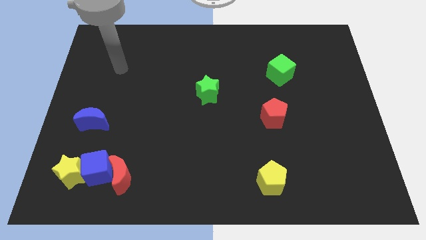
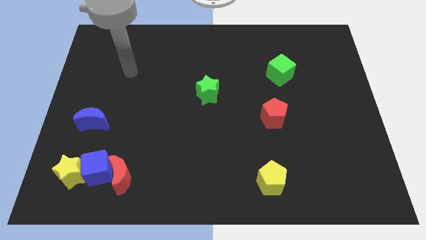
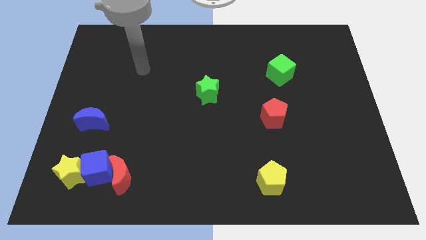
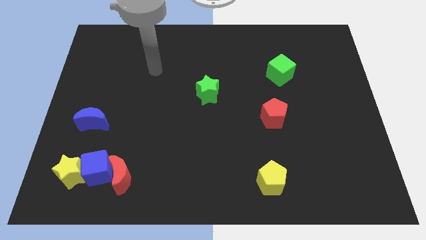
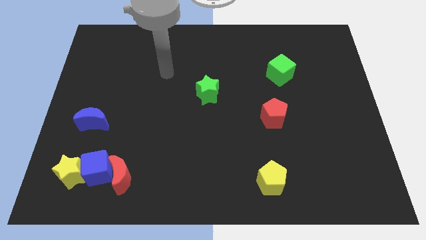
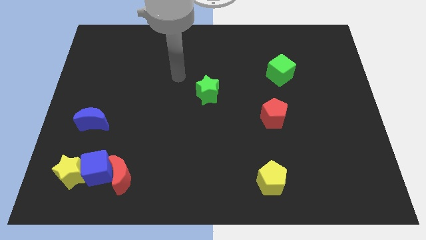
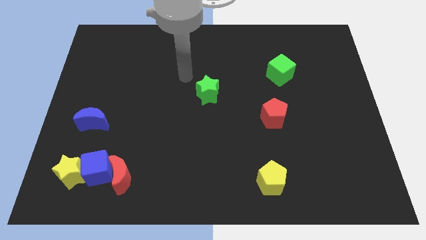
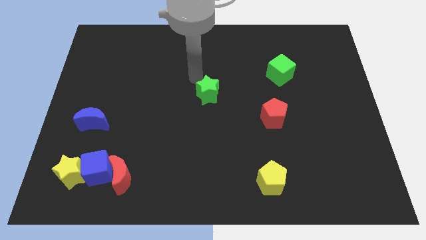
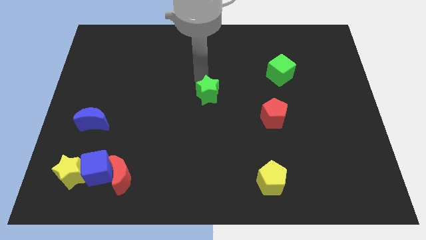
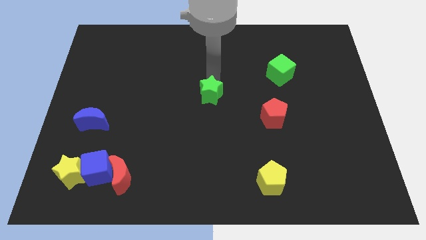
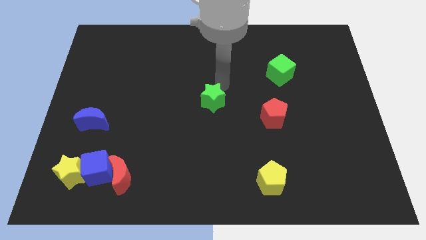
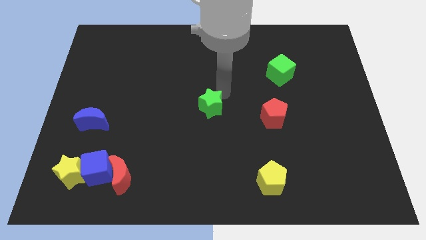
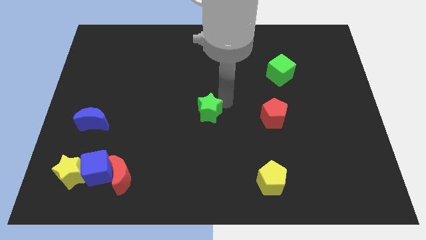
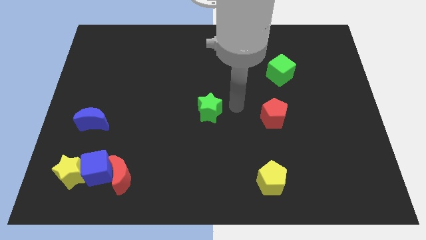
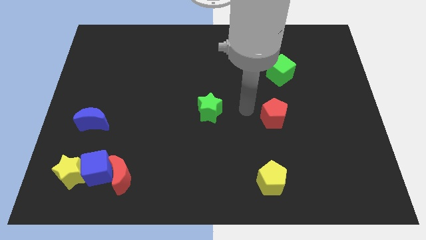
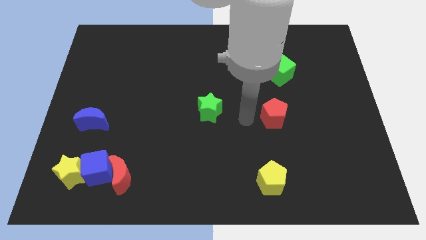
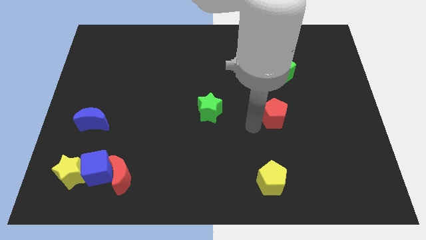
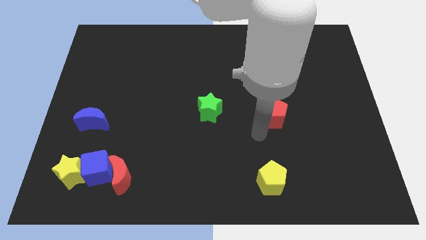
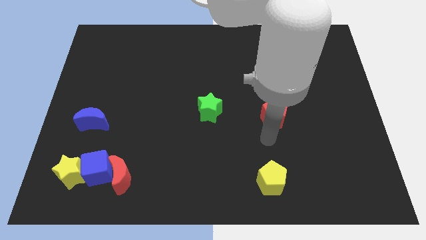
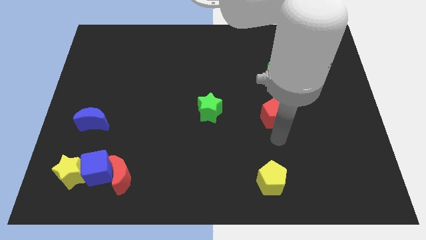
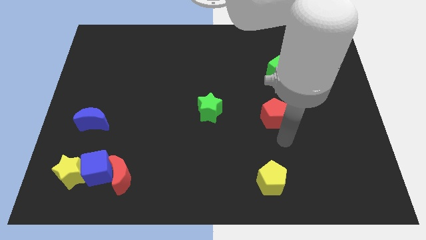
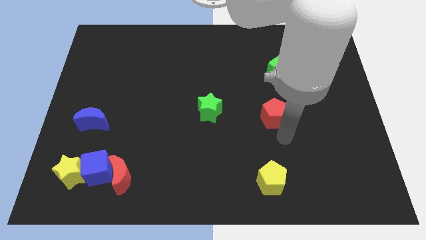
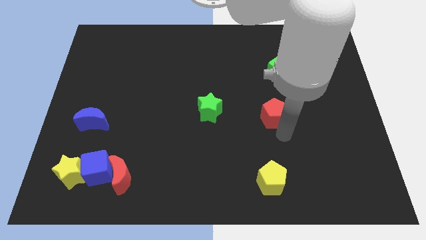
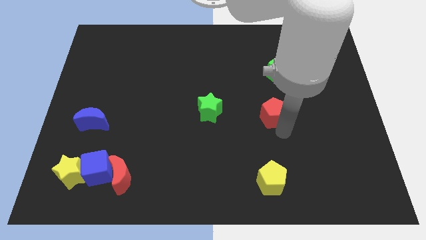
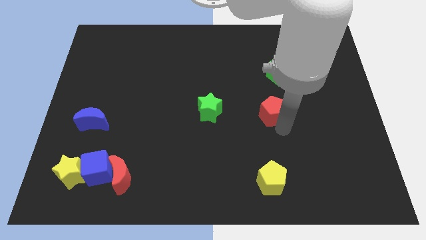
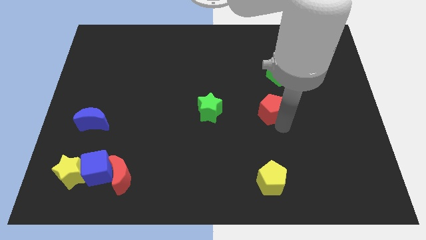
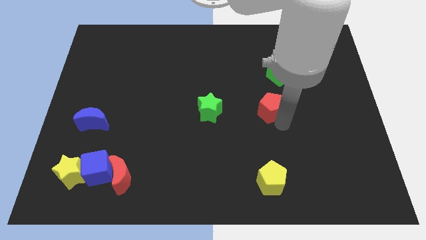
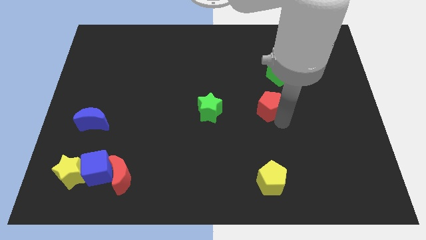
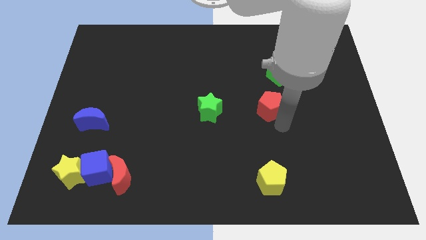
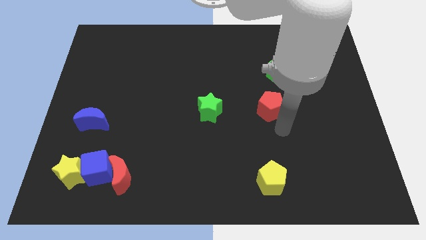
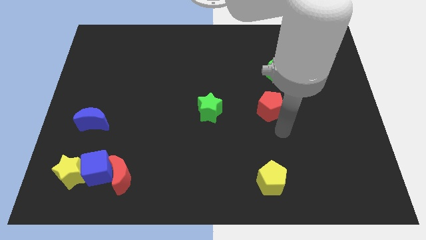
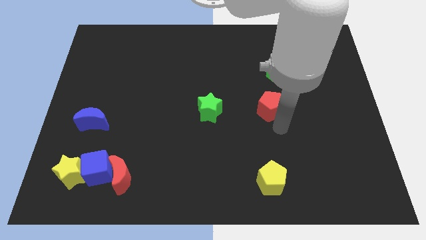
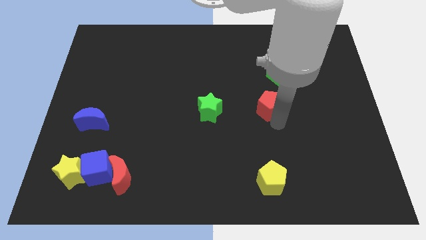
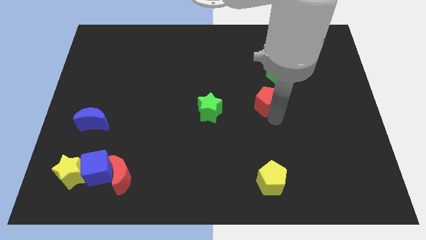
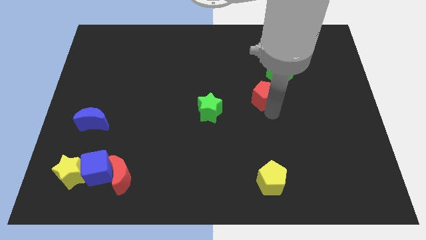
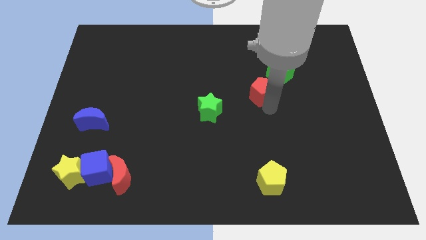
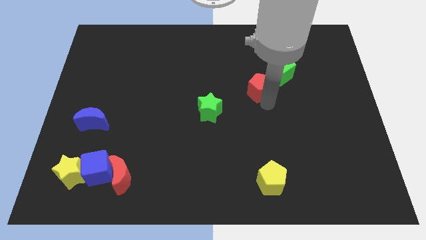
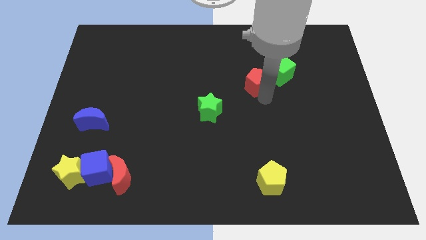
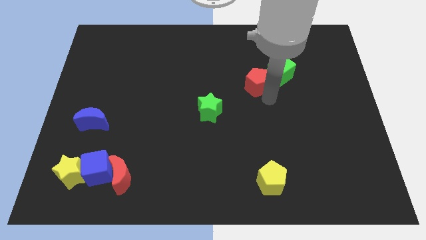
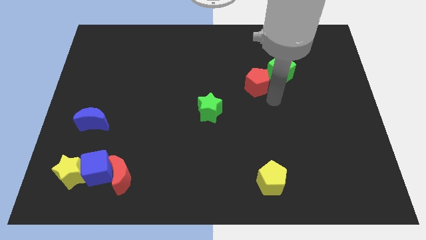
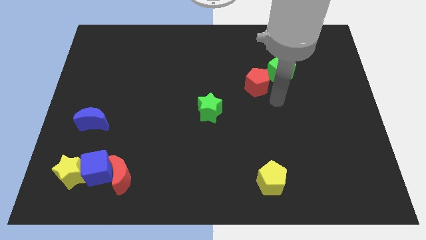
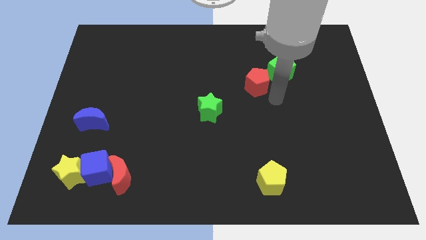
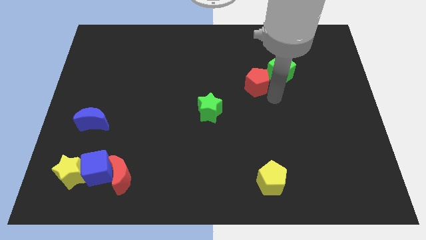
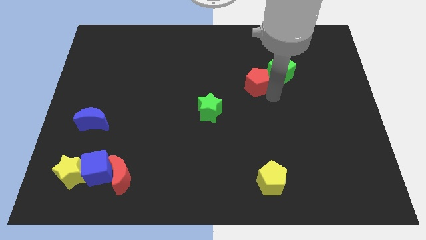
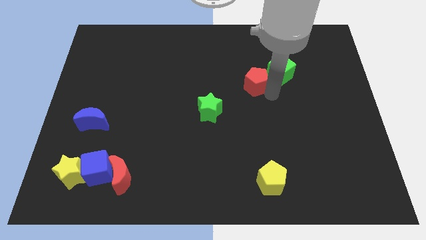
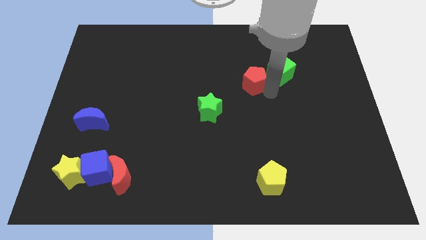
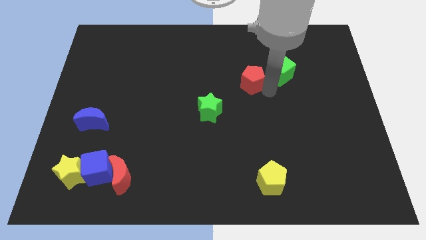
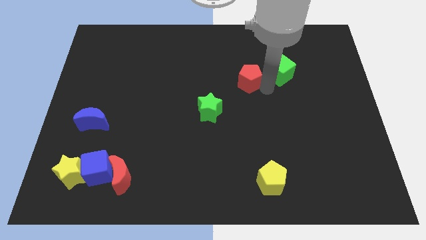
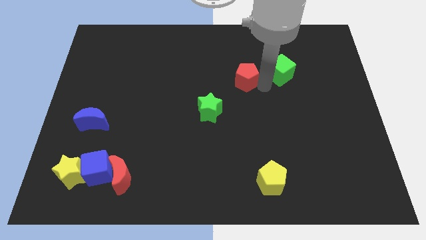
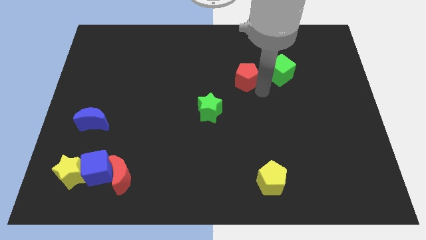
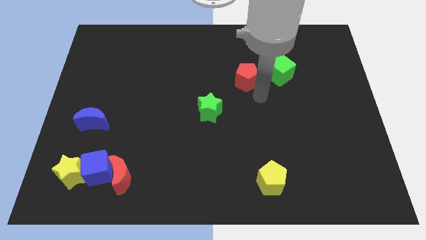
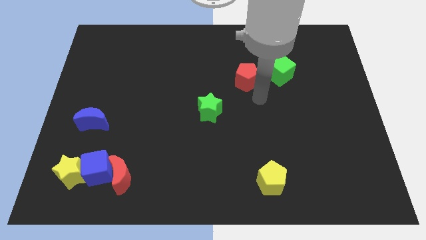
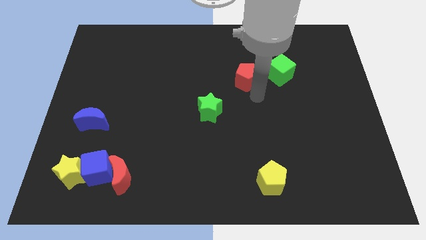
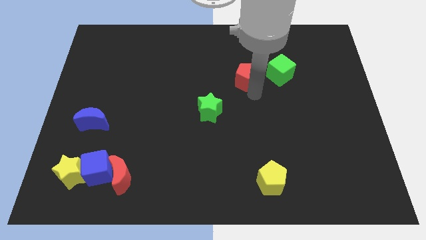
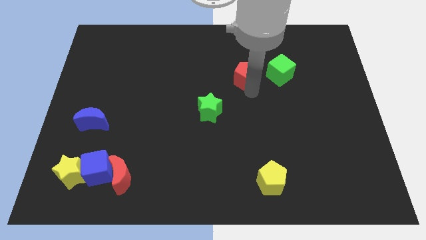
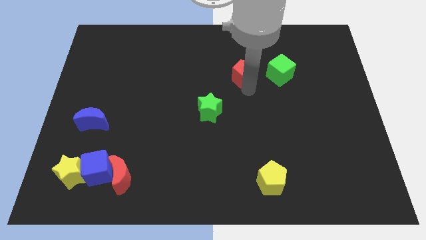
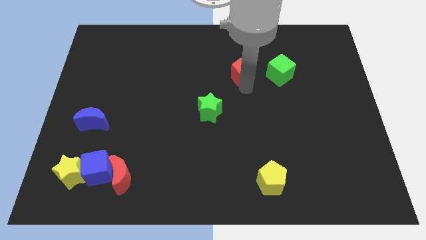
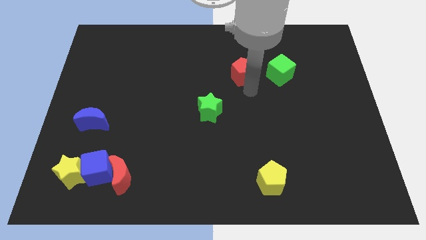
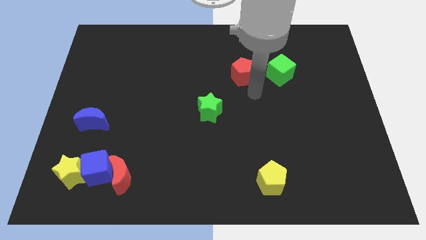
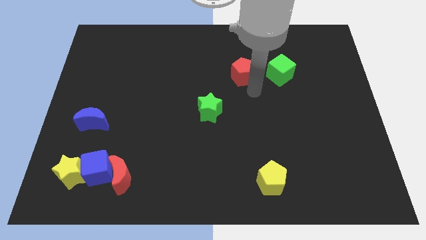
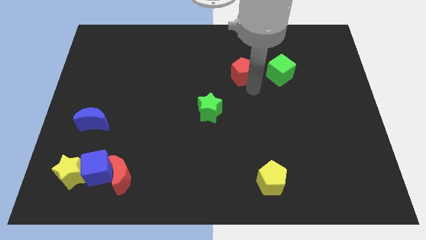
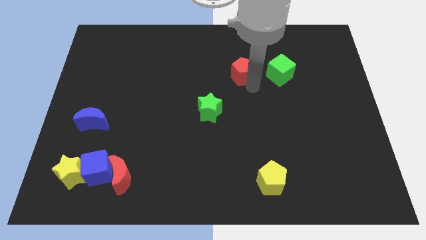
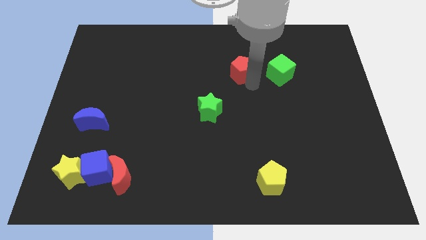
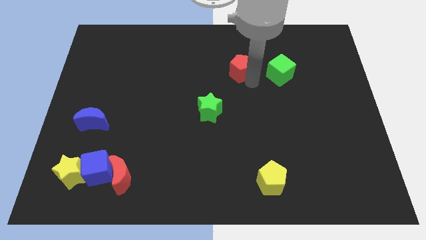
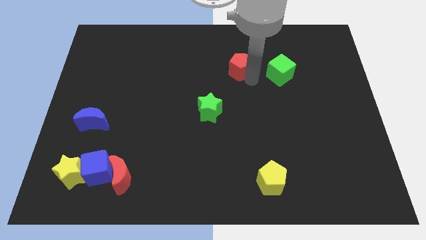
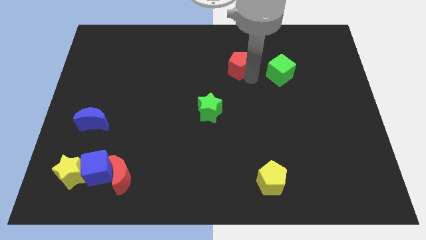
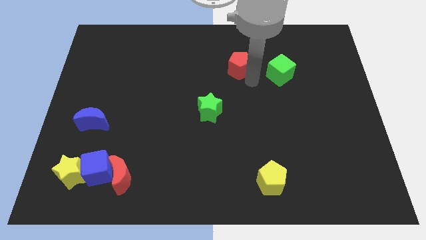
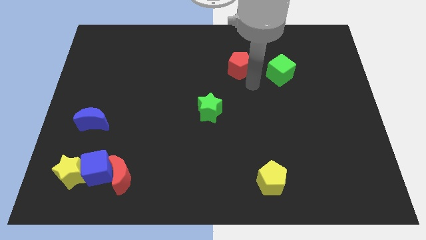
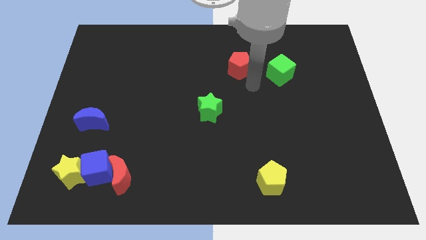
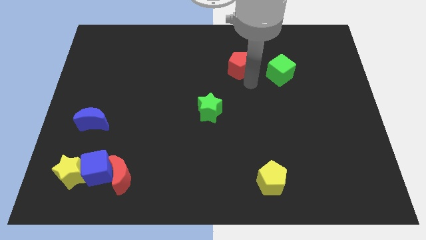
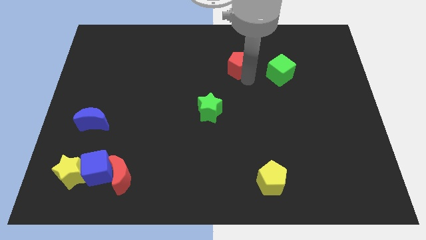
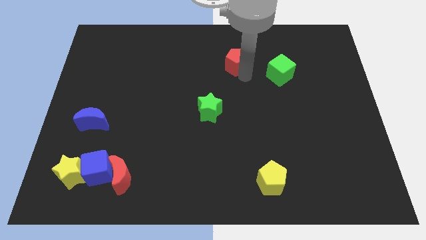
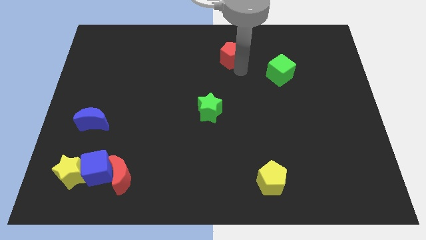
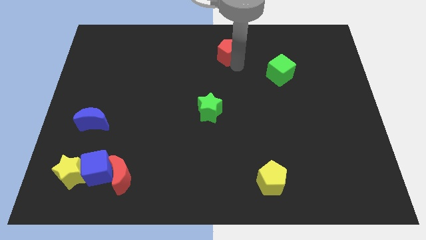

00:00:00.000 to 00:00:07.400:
put the red pentagon to the top side
